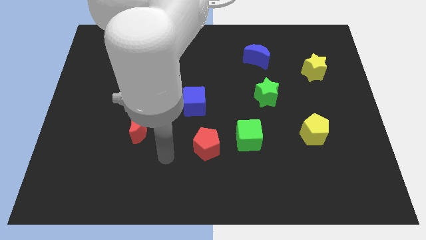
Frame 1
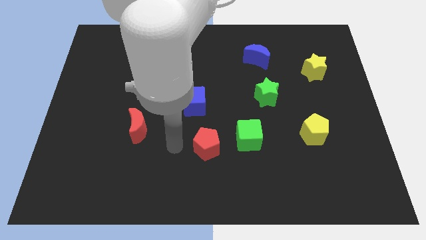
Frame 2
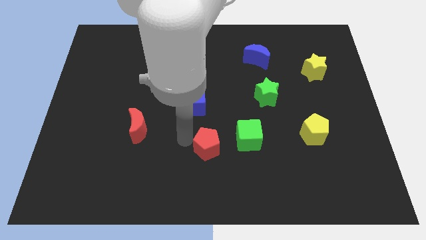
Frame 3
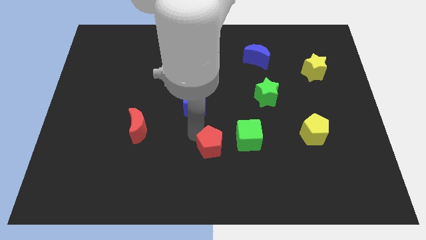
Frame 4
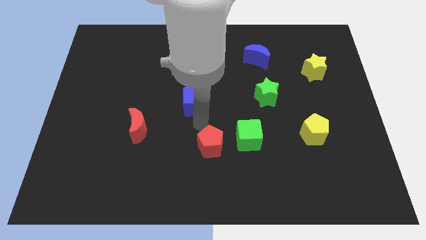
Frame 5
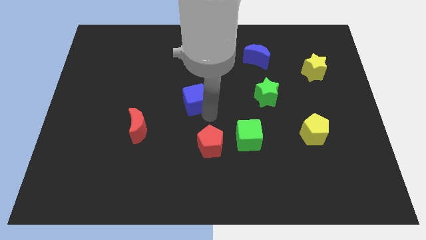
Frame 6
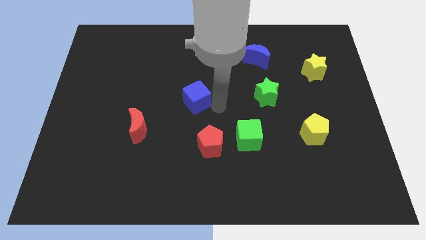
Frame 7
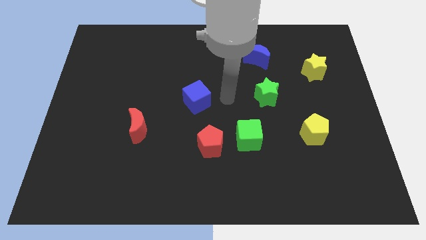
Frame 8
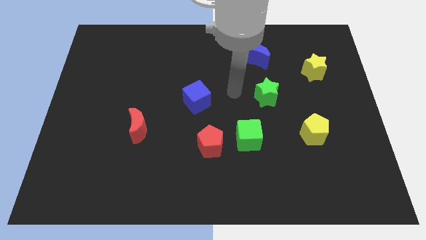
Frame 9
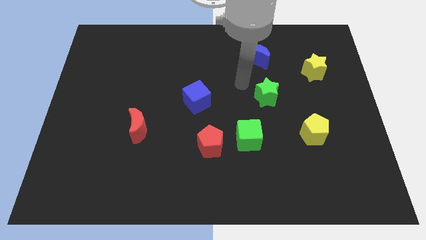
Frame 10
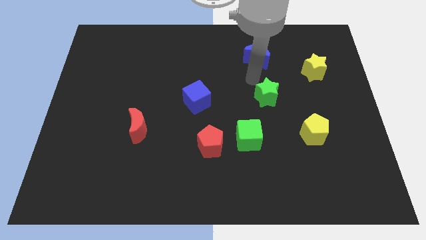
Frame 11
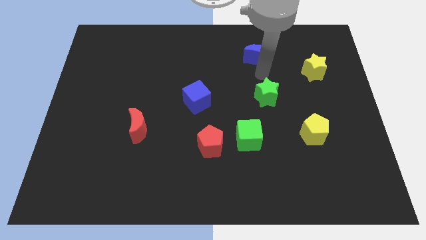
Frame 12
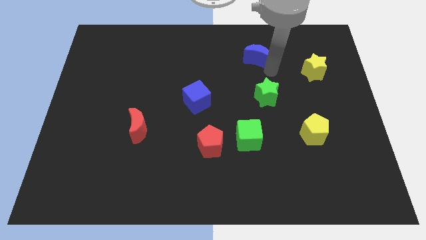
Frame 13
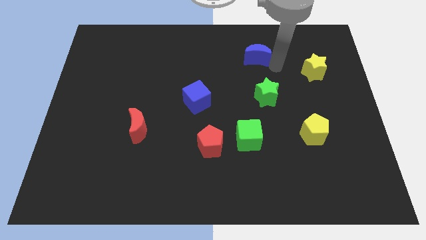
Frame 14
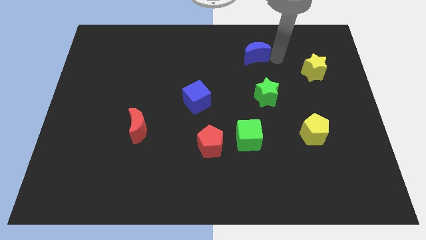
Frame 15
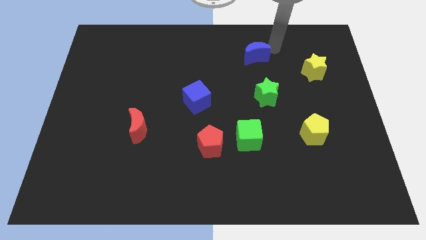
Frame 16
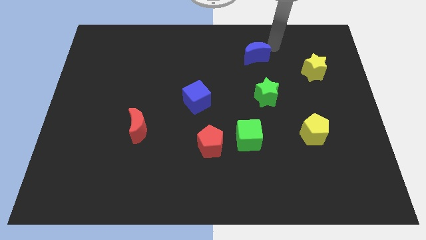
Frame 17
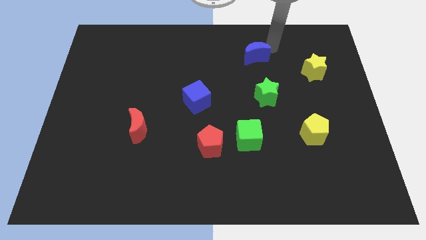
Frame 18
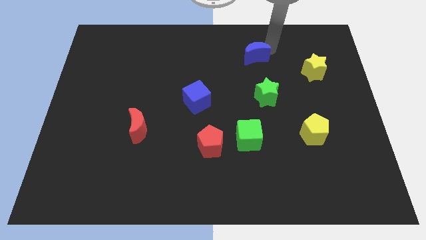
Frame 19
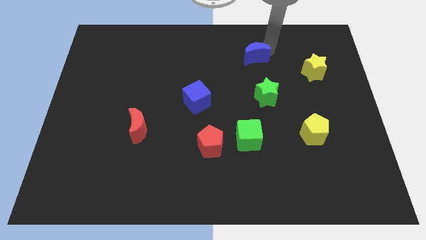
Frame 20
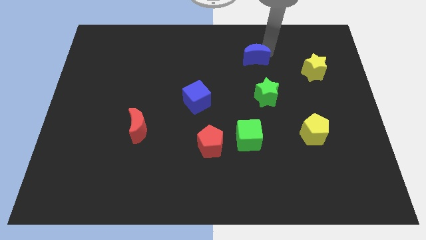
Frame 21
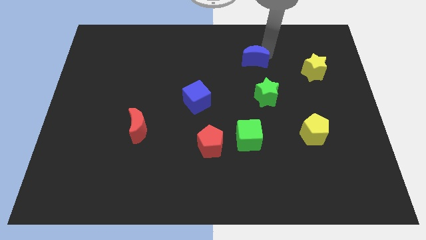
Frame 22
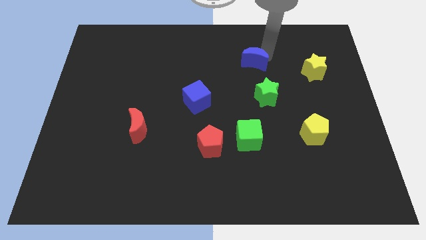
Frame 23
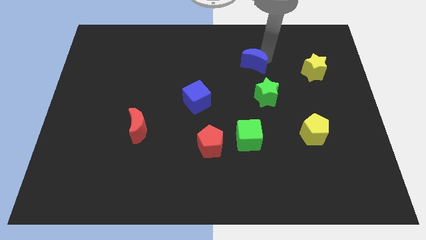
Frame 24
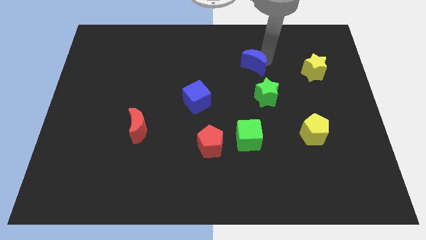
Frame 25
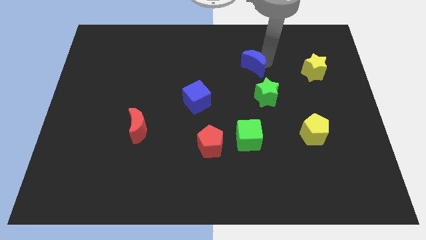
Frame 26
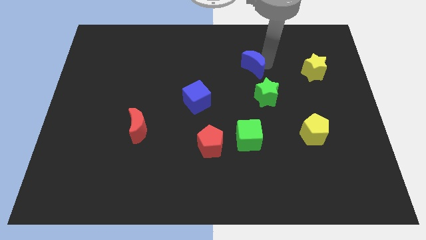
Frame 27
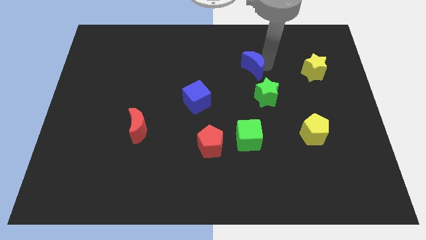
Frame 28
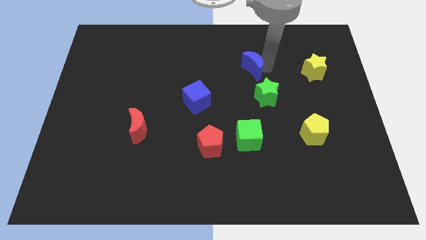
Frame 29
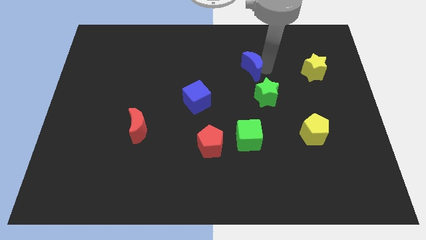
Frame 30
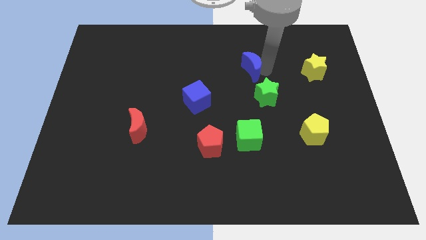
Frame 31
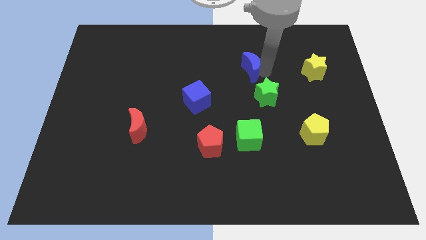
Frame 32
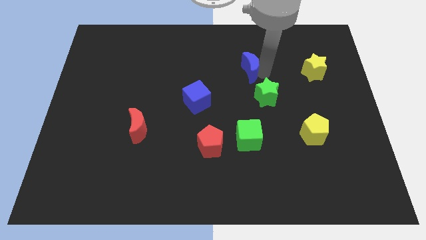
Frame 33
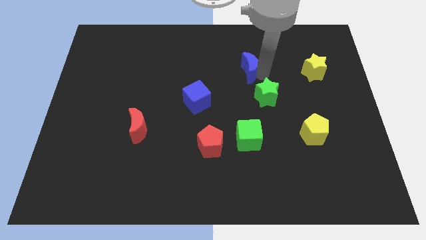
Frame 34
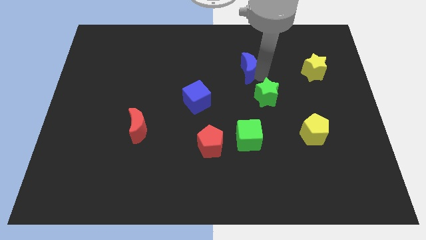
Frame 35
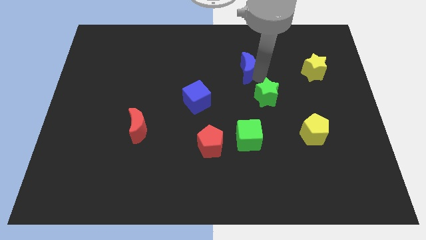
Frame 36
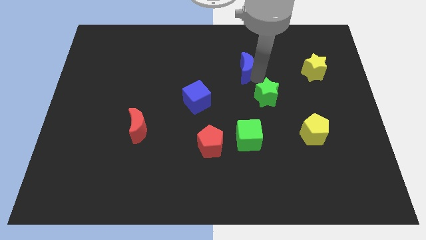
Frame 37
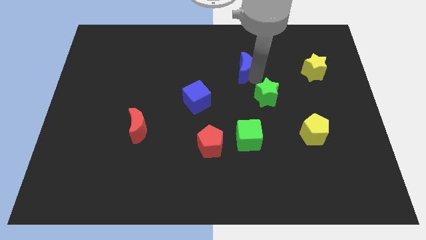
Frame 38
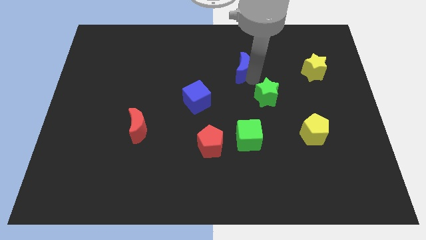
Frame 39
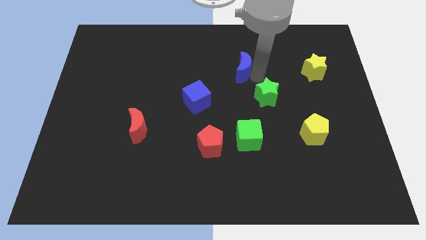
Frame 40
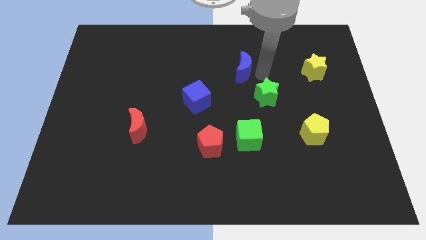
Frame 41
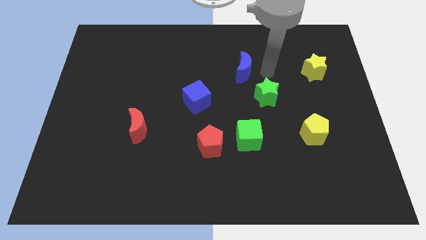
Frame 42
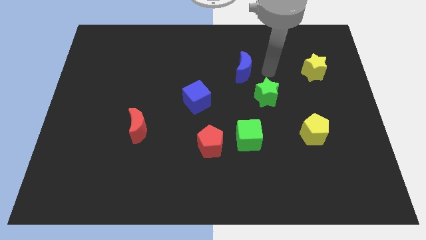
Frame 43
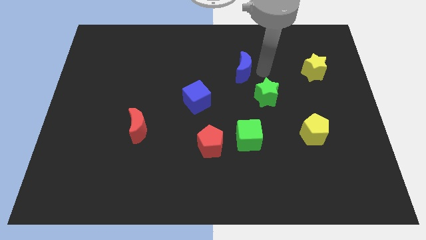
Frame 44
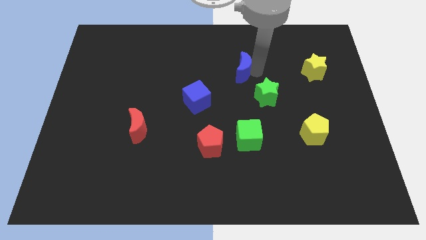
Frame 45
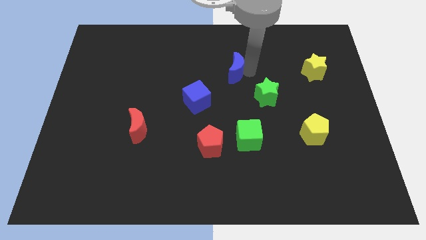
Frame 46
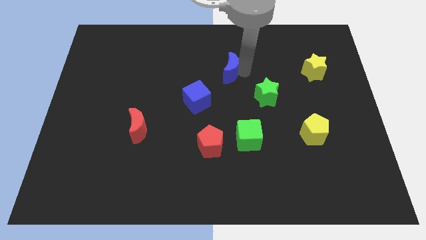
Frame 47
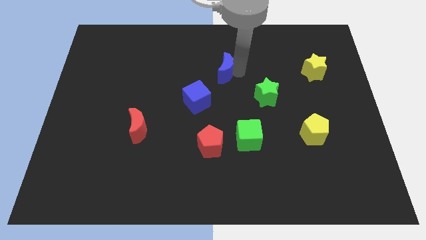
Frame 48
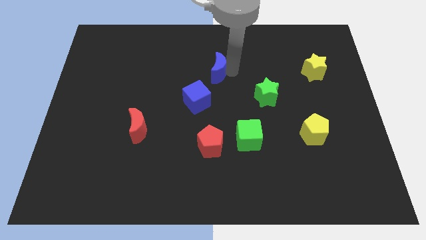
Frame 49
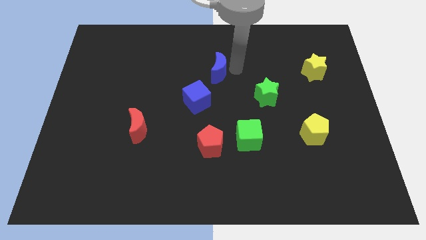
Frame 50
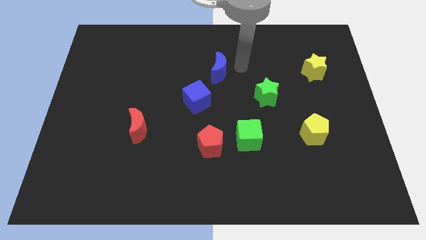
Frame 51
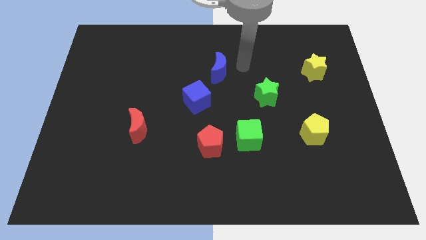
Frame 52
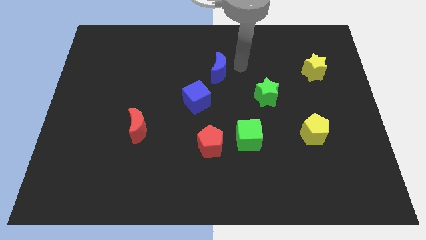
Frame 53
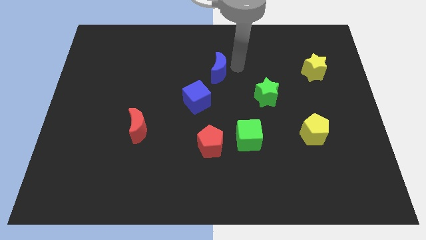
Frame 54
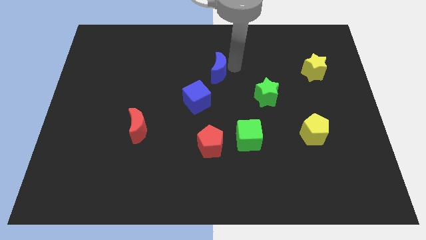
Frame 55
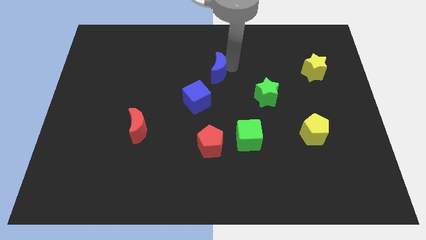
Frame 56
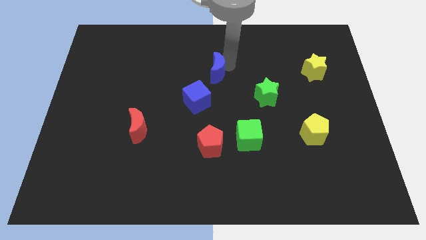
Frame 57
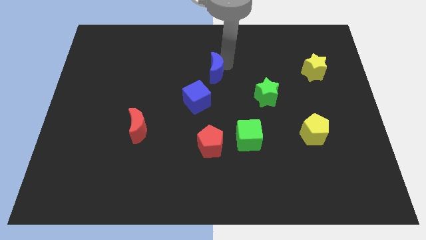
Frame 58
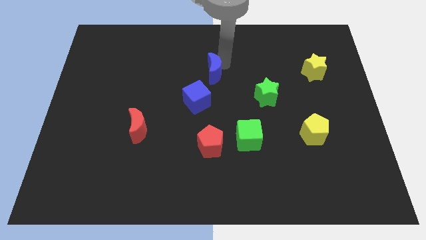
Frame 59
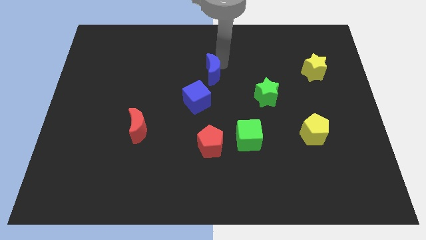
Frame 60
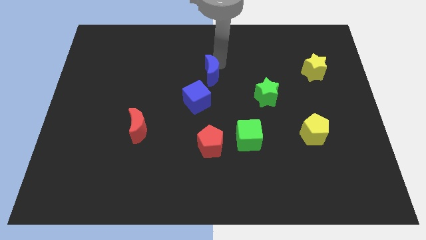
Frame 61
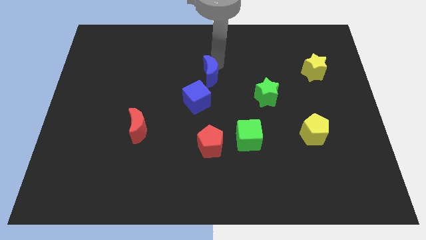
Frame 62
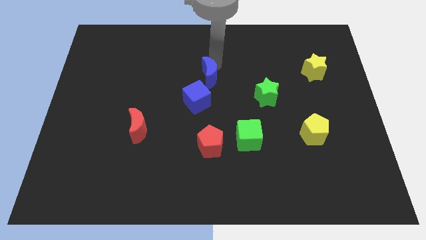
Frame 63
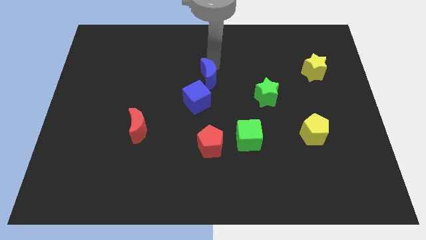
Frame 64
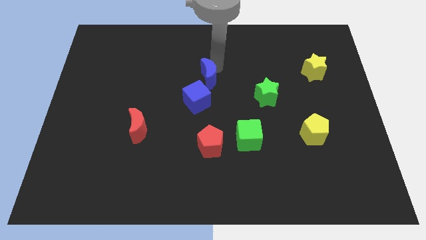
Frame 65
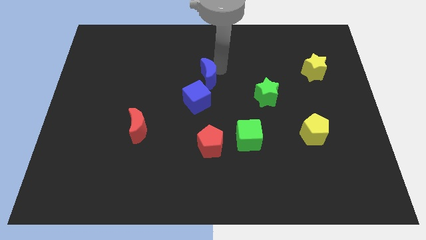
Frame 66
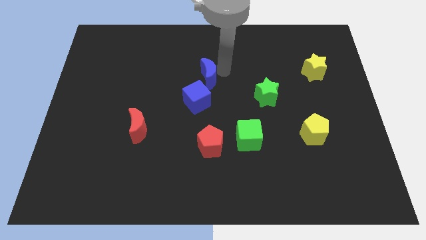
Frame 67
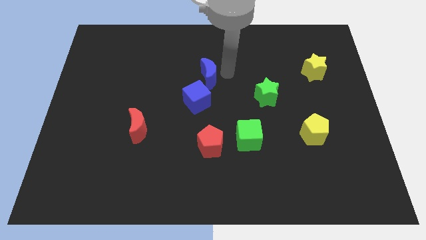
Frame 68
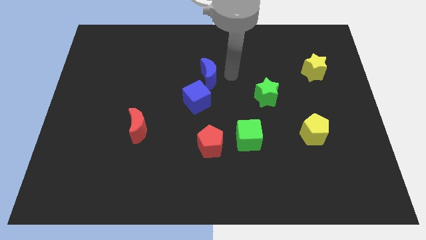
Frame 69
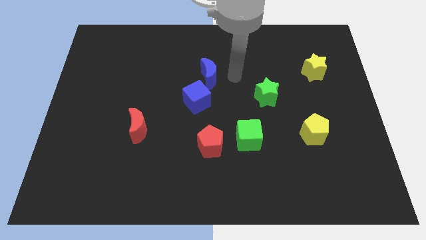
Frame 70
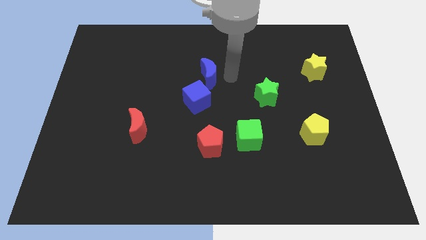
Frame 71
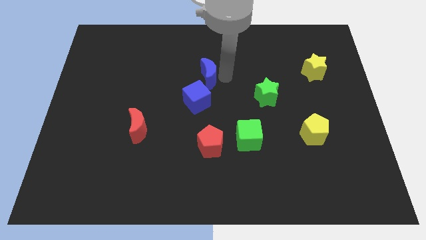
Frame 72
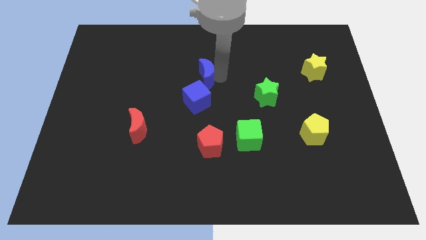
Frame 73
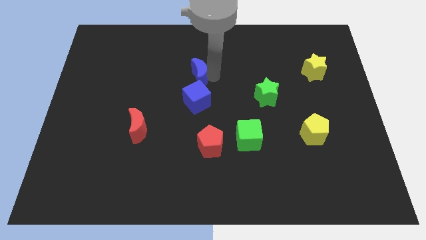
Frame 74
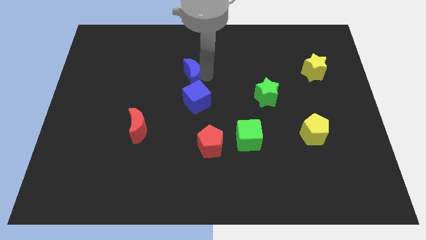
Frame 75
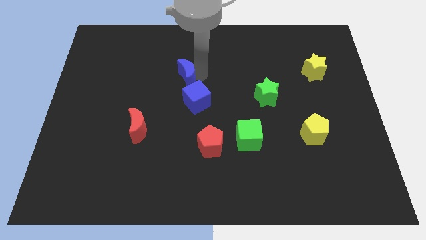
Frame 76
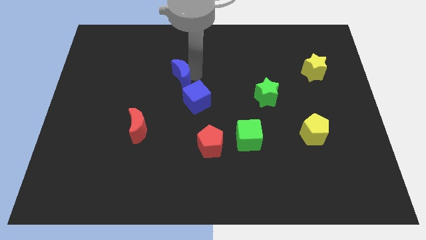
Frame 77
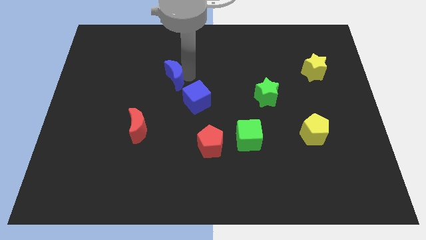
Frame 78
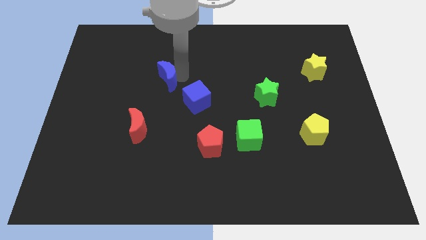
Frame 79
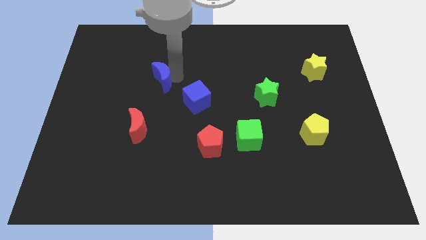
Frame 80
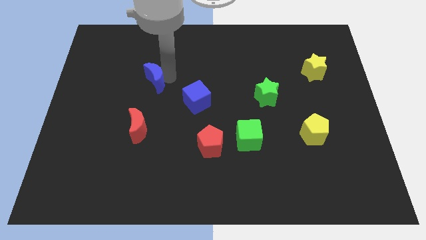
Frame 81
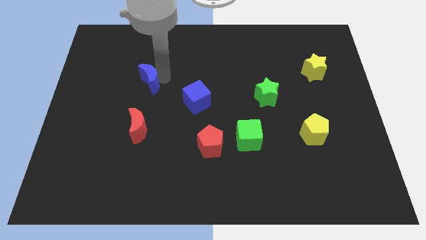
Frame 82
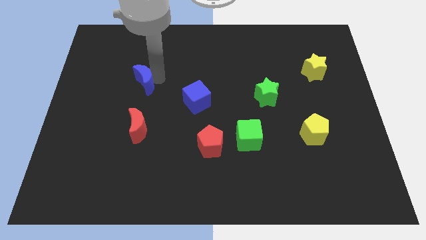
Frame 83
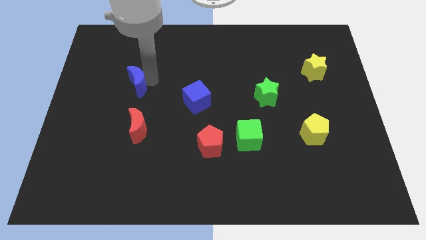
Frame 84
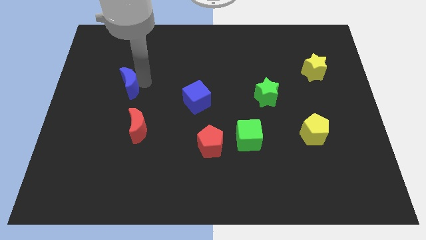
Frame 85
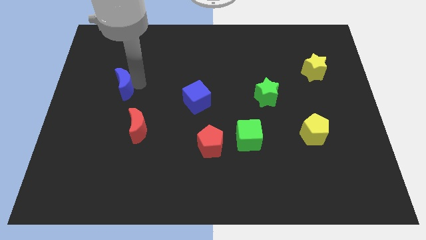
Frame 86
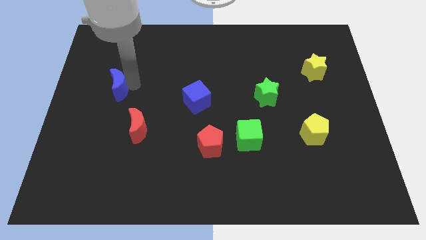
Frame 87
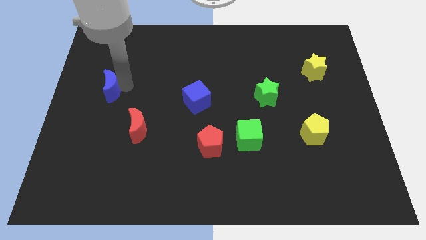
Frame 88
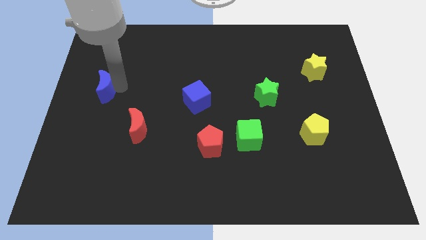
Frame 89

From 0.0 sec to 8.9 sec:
put the blue moon to the left side
